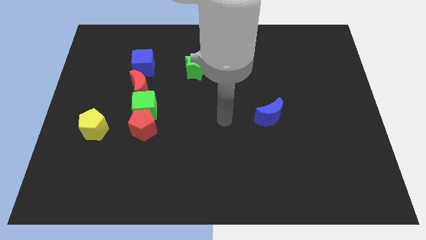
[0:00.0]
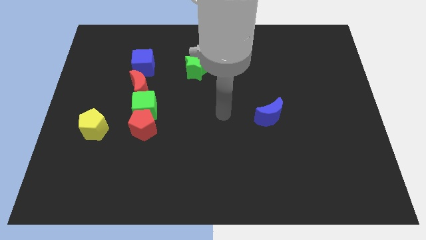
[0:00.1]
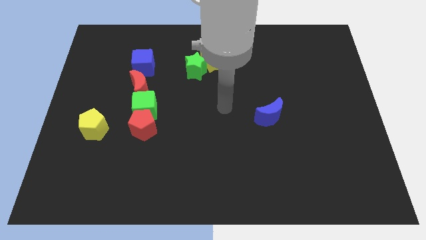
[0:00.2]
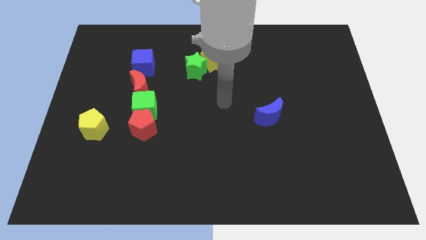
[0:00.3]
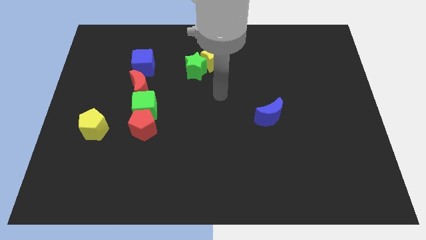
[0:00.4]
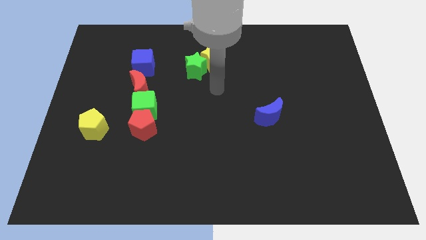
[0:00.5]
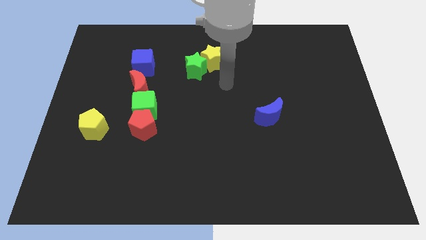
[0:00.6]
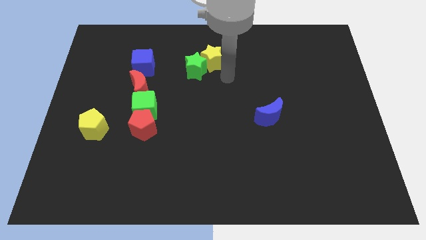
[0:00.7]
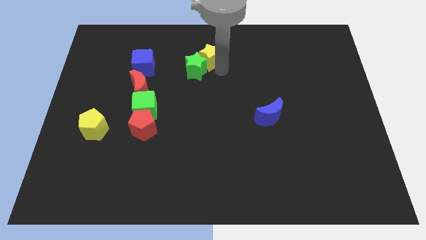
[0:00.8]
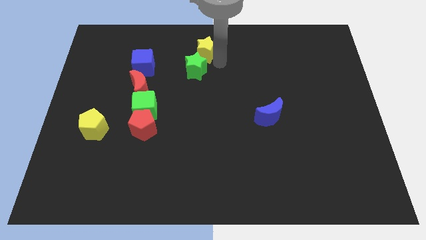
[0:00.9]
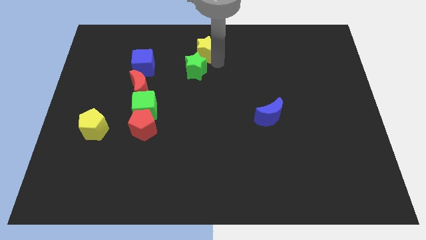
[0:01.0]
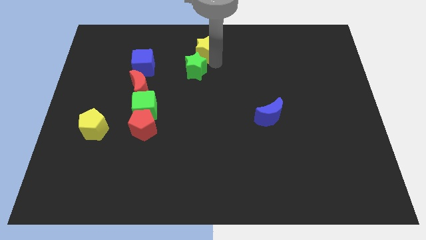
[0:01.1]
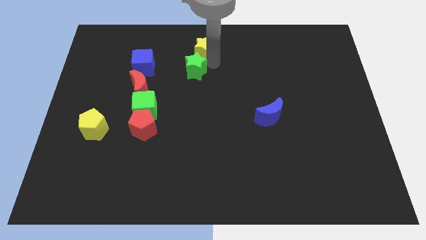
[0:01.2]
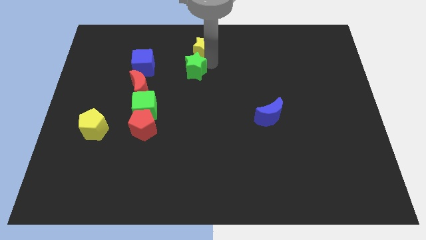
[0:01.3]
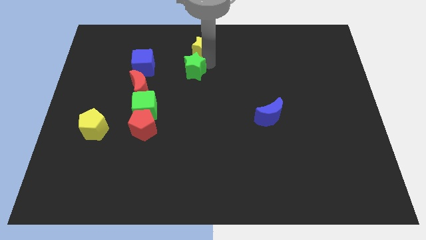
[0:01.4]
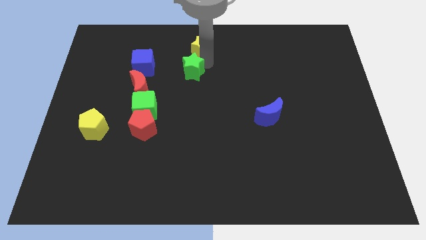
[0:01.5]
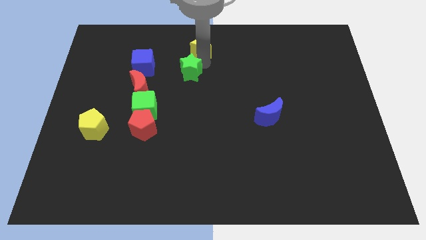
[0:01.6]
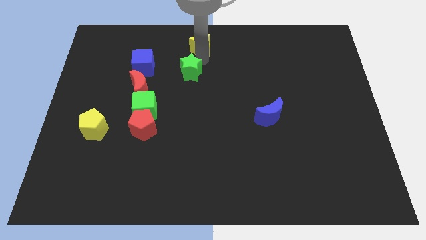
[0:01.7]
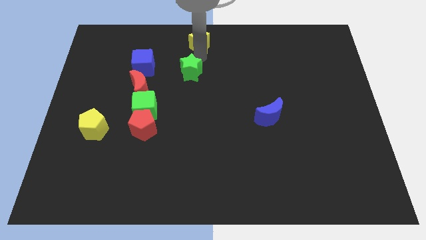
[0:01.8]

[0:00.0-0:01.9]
move the green star away from the yellow star

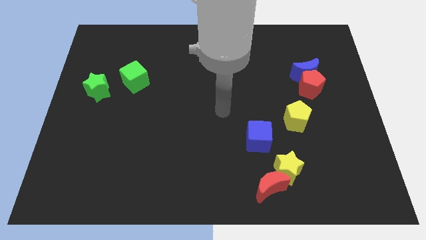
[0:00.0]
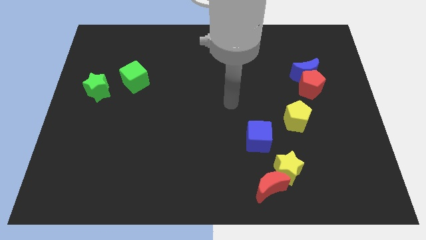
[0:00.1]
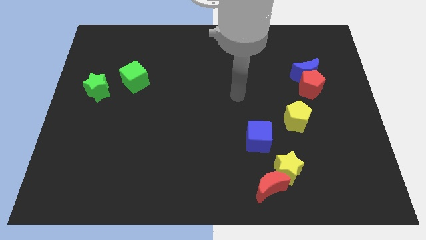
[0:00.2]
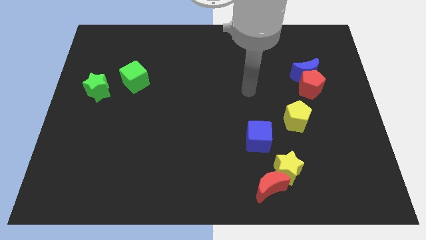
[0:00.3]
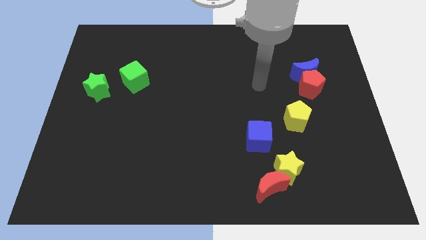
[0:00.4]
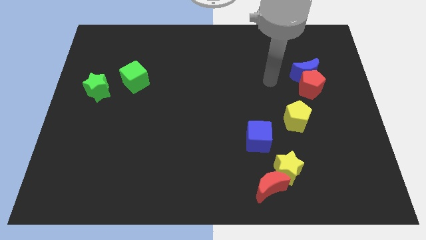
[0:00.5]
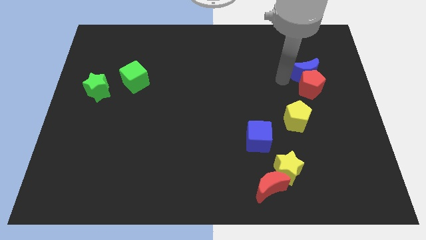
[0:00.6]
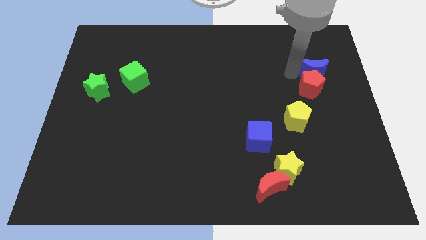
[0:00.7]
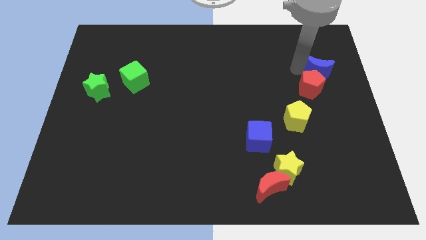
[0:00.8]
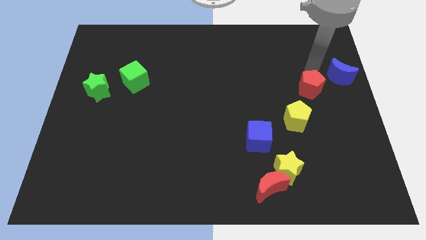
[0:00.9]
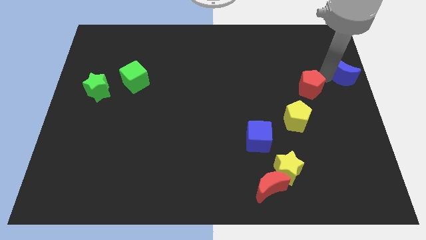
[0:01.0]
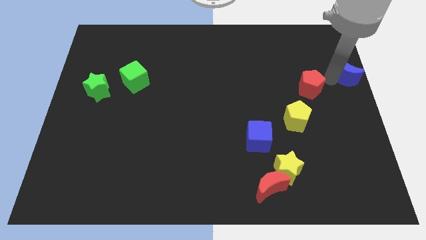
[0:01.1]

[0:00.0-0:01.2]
separate the red pentagon from the blue moon

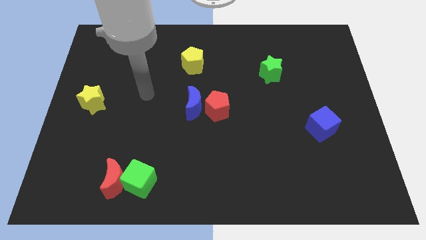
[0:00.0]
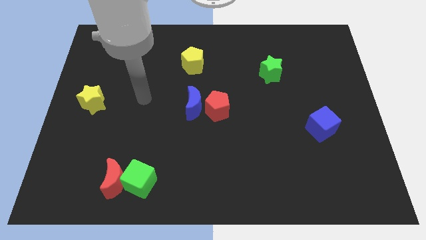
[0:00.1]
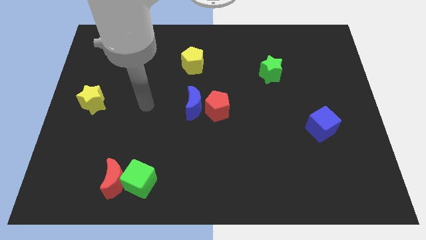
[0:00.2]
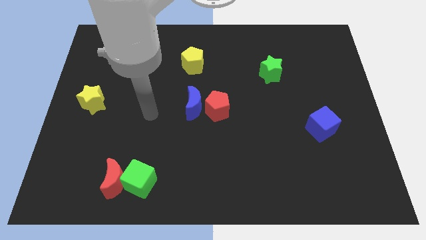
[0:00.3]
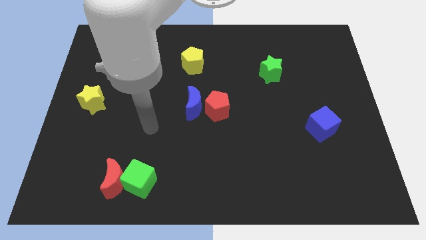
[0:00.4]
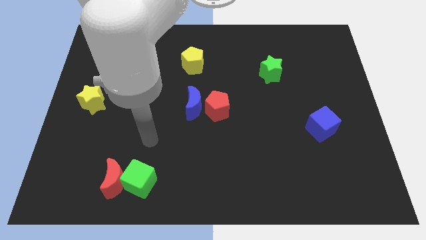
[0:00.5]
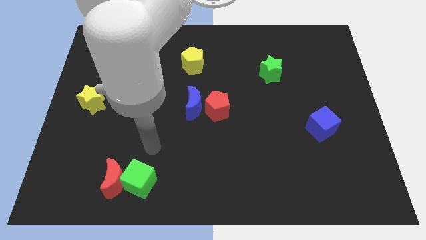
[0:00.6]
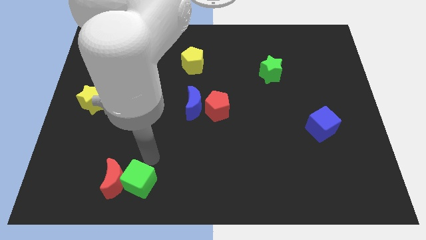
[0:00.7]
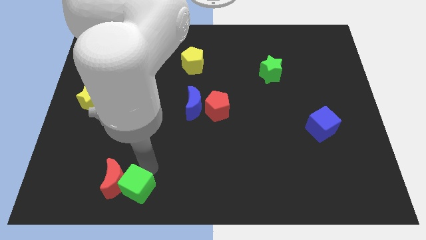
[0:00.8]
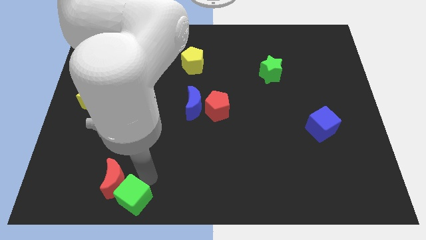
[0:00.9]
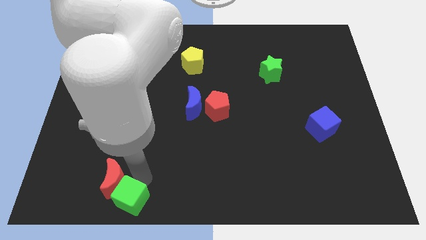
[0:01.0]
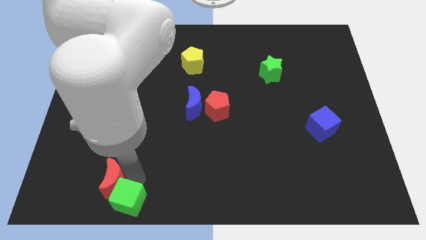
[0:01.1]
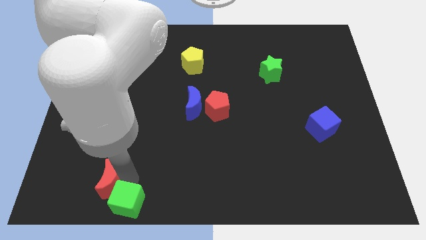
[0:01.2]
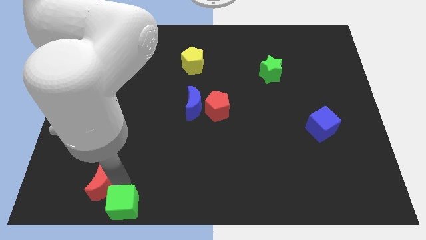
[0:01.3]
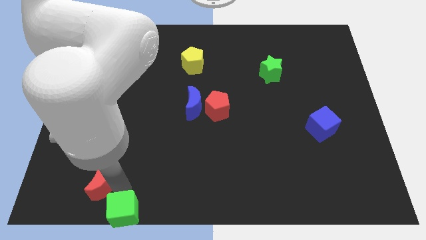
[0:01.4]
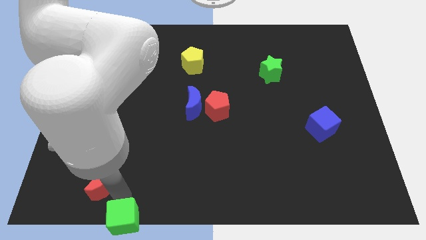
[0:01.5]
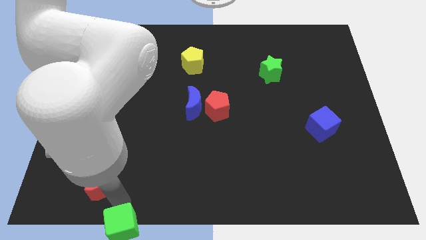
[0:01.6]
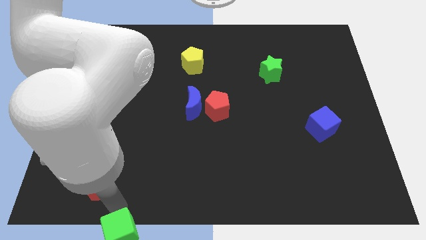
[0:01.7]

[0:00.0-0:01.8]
separate the red moon from the green cube

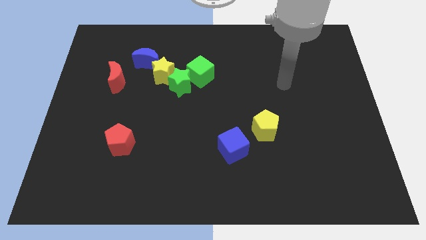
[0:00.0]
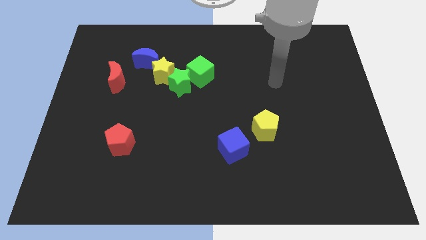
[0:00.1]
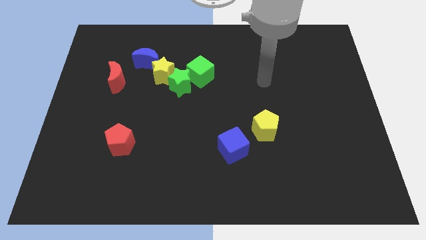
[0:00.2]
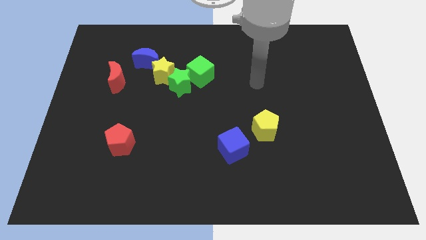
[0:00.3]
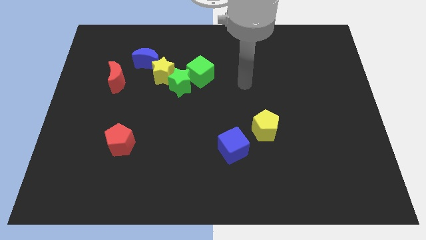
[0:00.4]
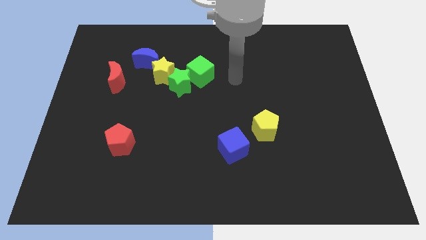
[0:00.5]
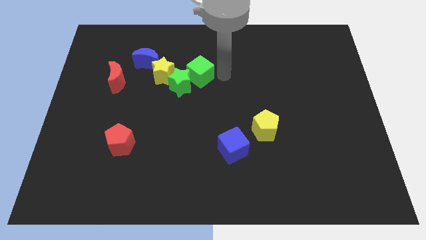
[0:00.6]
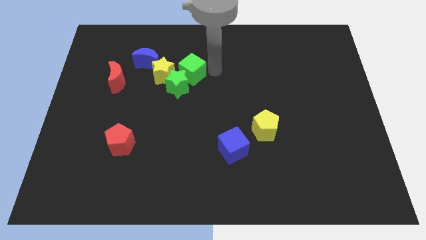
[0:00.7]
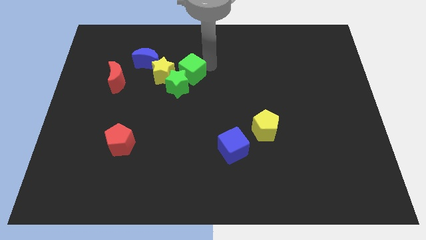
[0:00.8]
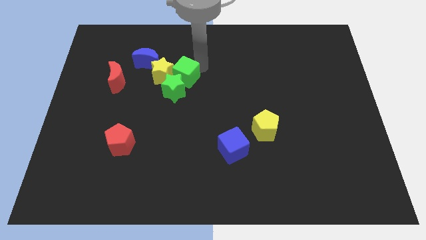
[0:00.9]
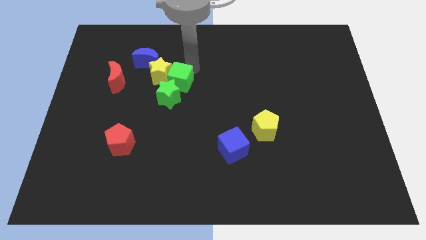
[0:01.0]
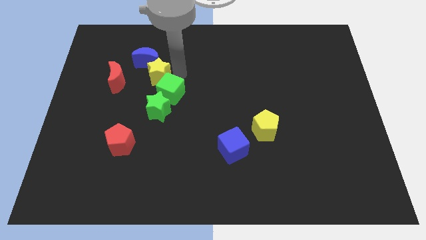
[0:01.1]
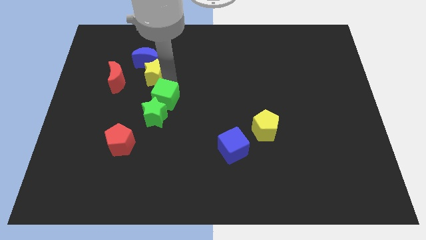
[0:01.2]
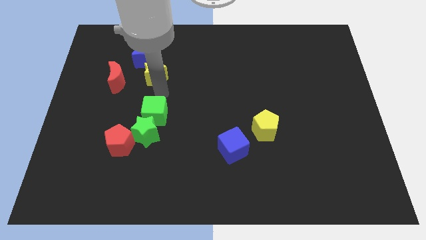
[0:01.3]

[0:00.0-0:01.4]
pull the green star apart from the yellow star and green cube

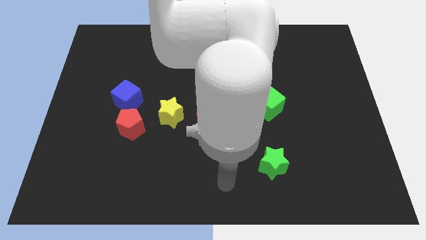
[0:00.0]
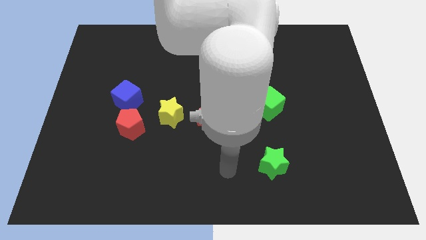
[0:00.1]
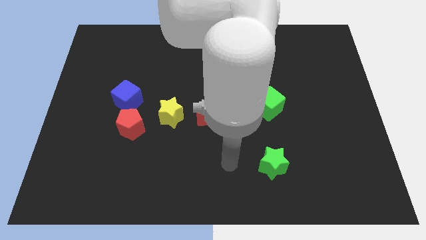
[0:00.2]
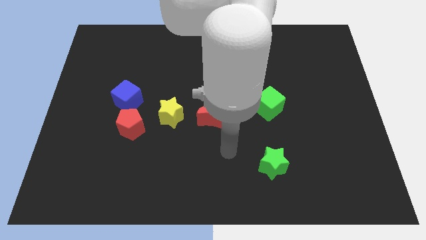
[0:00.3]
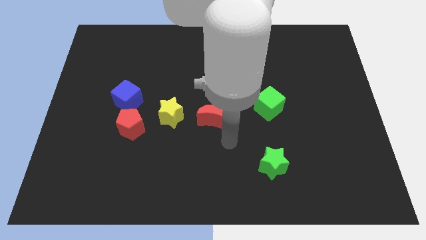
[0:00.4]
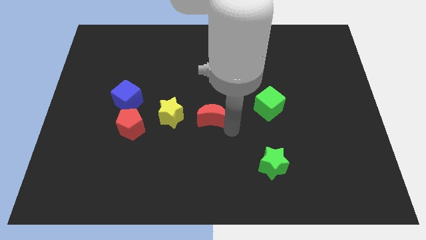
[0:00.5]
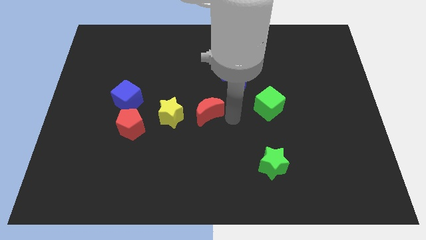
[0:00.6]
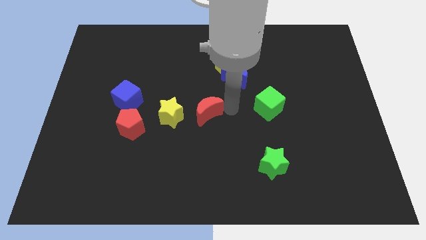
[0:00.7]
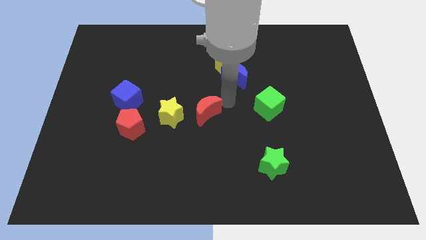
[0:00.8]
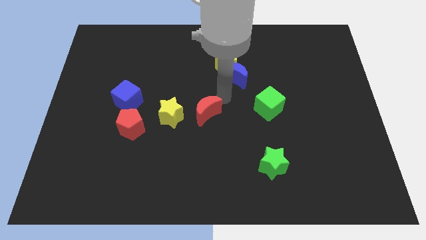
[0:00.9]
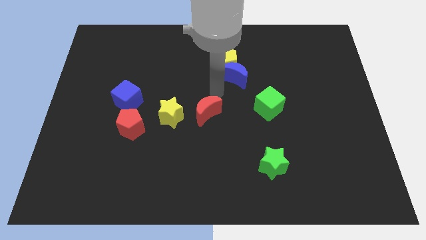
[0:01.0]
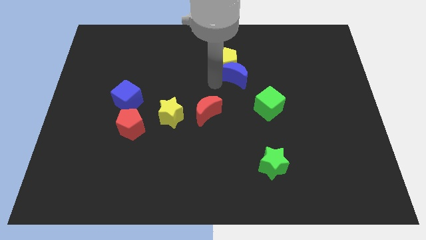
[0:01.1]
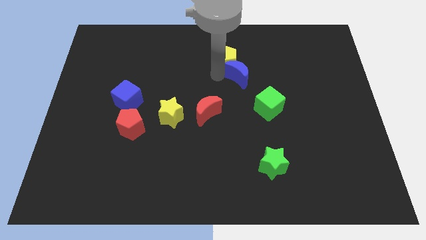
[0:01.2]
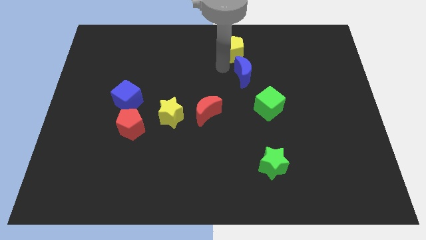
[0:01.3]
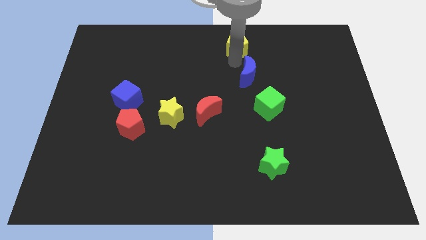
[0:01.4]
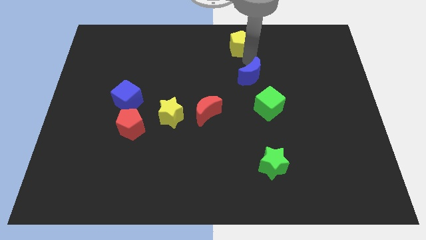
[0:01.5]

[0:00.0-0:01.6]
pull the blue moon apart from the yellow pentagon

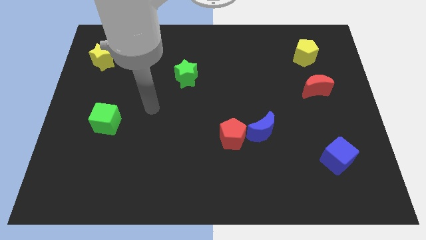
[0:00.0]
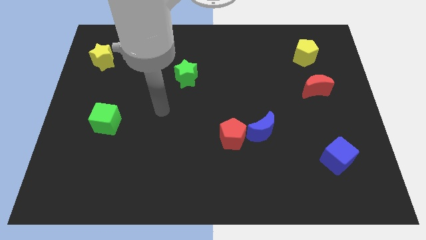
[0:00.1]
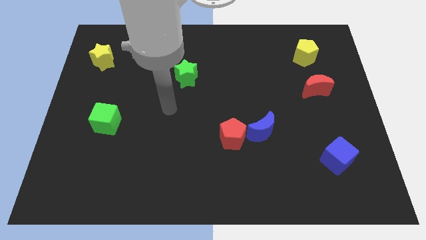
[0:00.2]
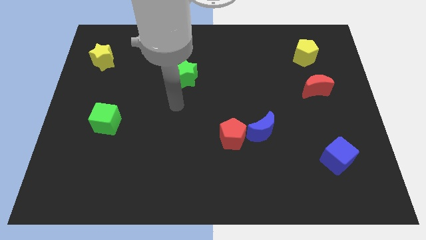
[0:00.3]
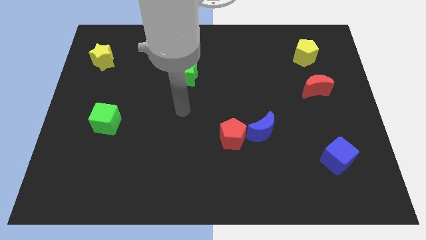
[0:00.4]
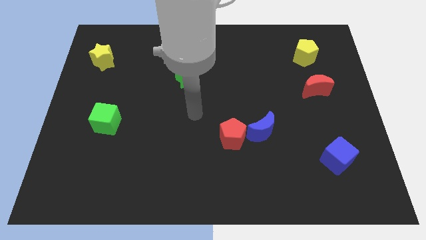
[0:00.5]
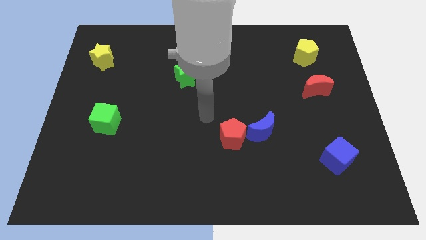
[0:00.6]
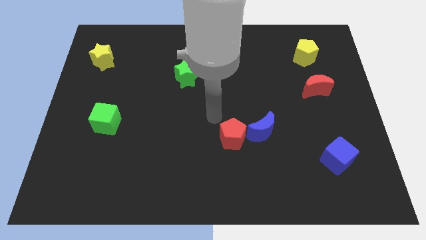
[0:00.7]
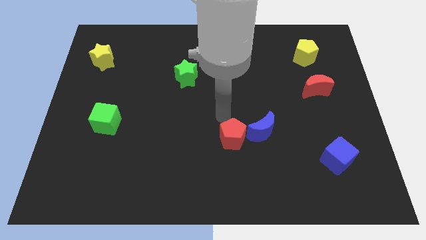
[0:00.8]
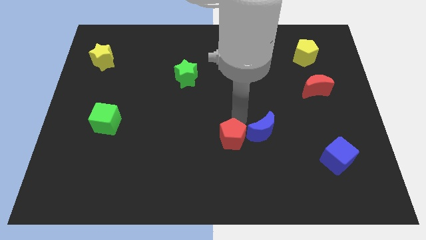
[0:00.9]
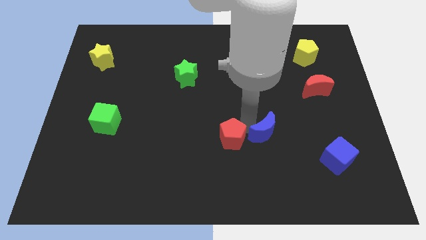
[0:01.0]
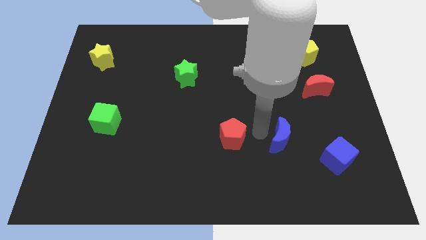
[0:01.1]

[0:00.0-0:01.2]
move the red pentagon away from the blue moon
